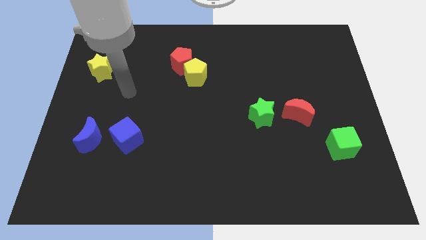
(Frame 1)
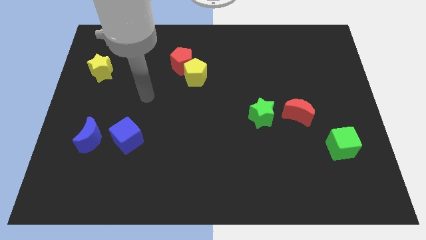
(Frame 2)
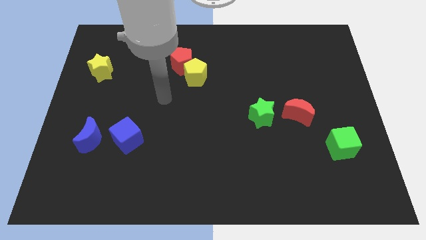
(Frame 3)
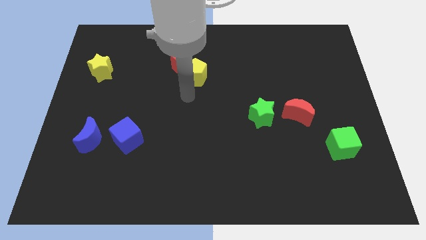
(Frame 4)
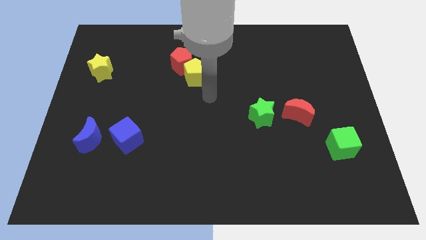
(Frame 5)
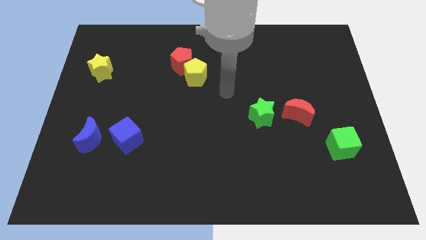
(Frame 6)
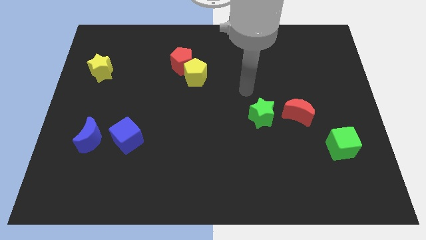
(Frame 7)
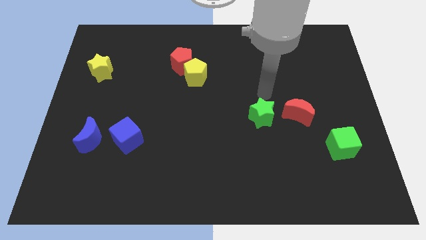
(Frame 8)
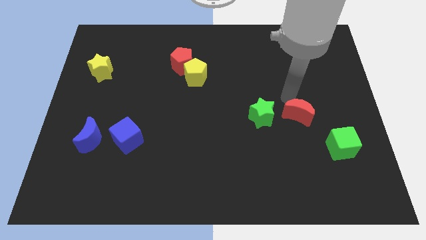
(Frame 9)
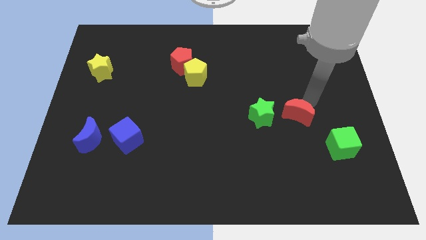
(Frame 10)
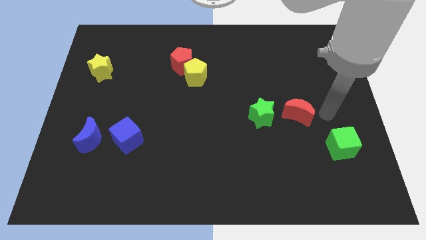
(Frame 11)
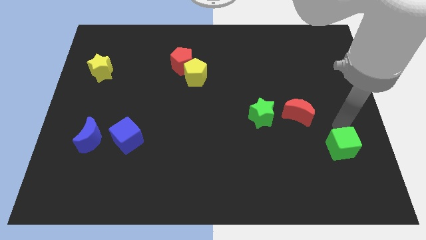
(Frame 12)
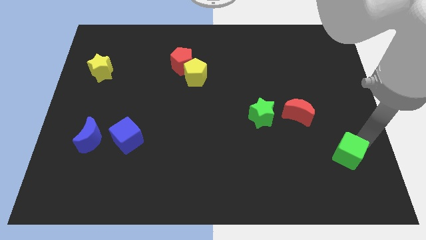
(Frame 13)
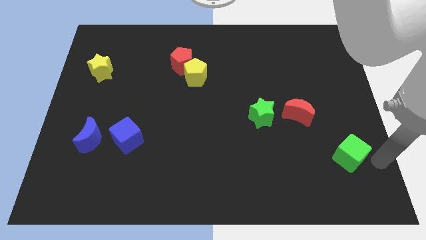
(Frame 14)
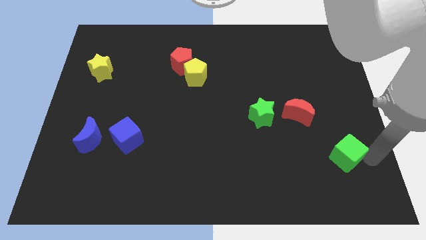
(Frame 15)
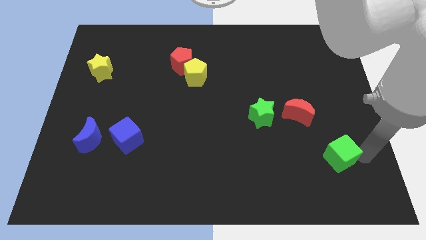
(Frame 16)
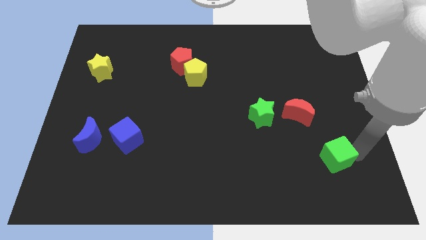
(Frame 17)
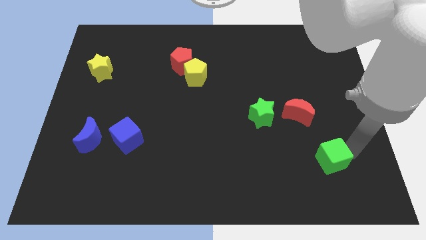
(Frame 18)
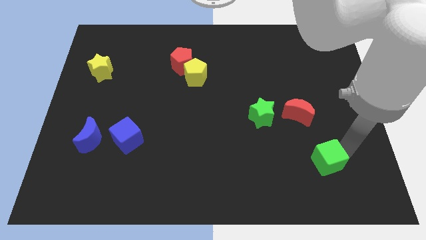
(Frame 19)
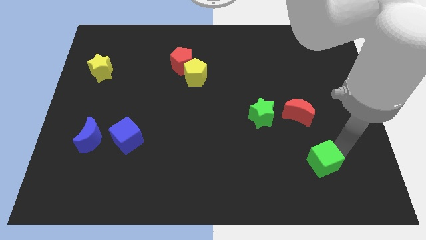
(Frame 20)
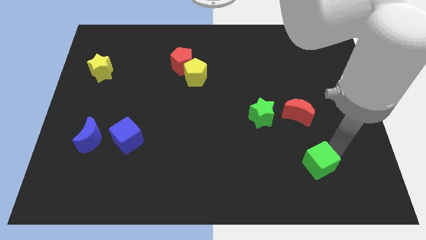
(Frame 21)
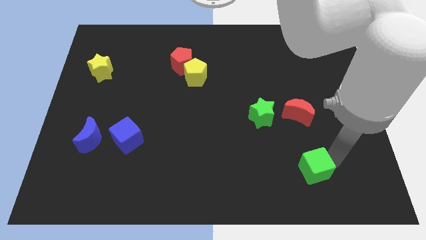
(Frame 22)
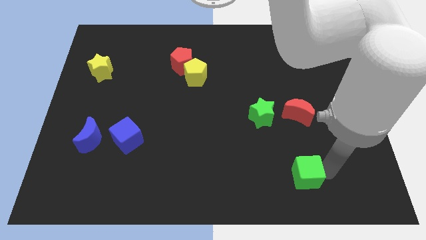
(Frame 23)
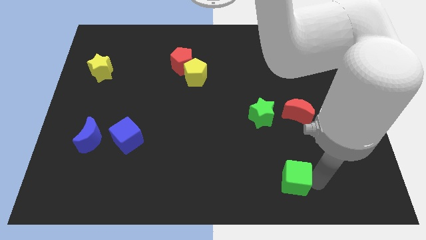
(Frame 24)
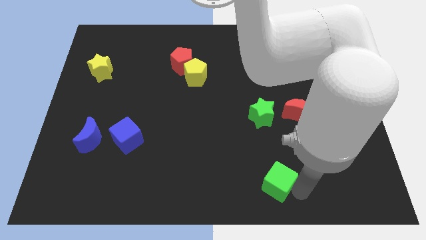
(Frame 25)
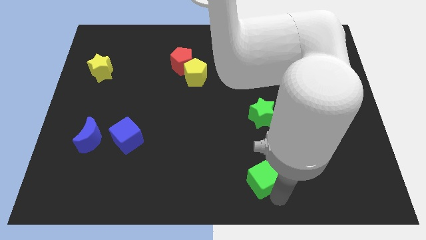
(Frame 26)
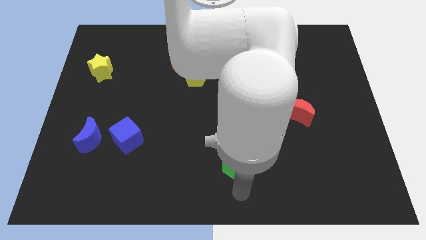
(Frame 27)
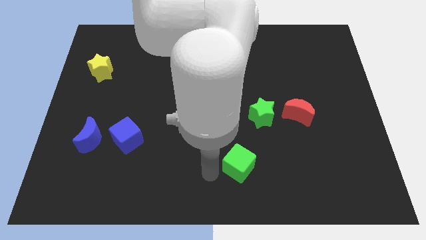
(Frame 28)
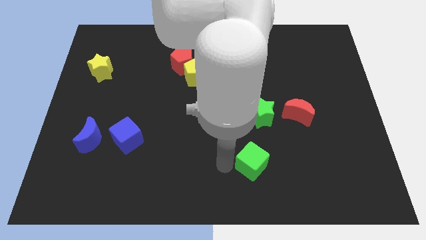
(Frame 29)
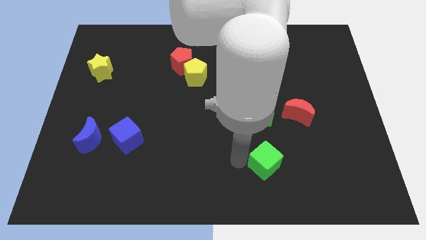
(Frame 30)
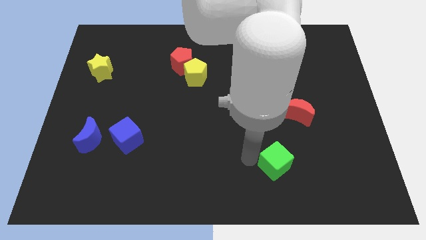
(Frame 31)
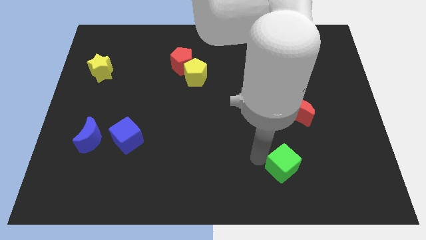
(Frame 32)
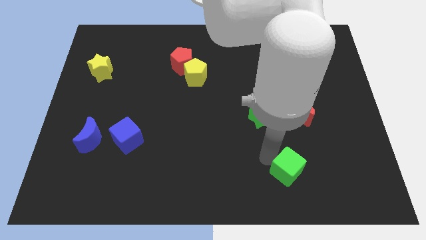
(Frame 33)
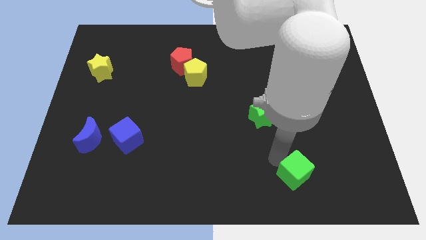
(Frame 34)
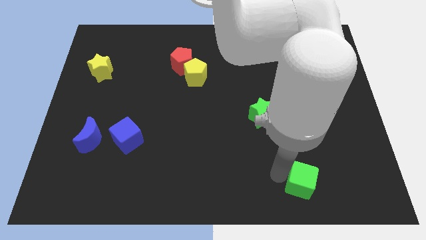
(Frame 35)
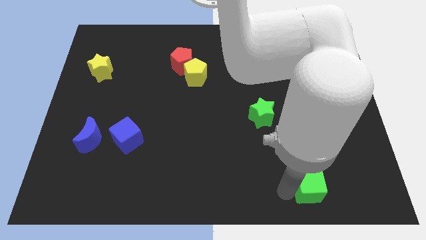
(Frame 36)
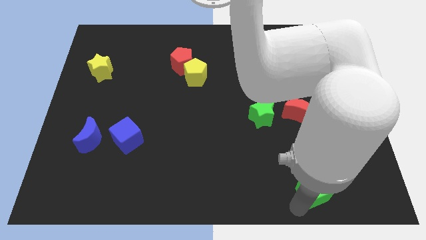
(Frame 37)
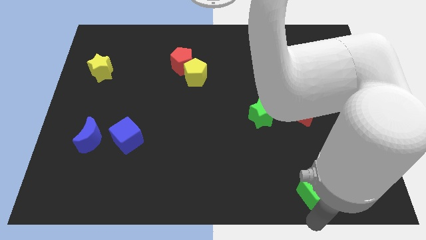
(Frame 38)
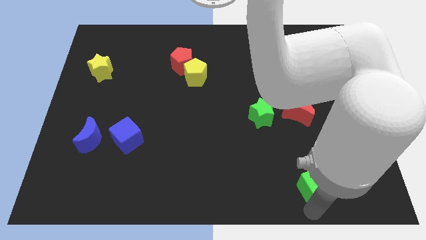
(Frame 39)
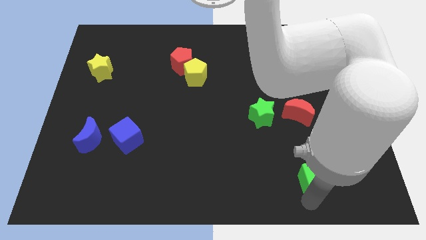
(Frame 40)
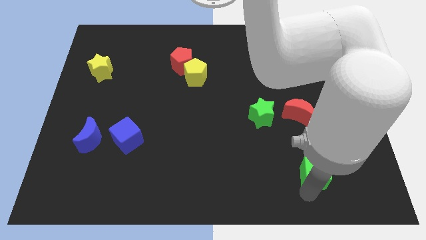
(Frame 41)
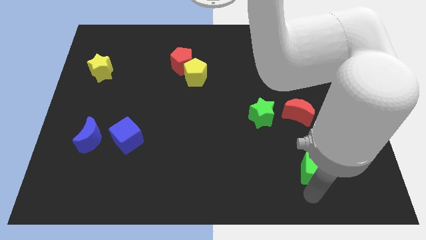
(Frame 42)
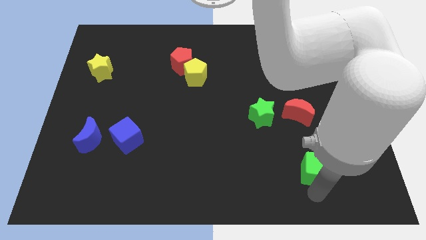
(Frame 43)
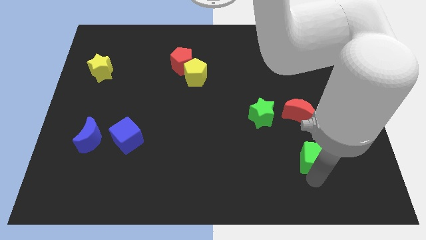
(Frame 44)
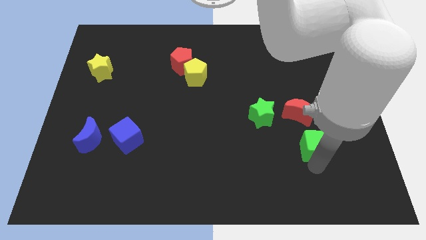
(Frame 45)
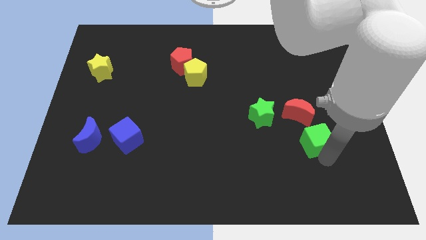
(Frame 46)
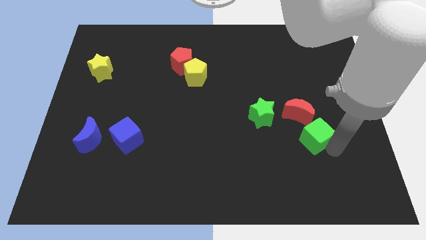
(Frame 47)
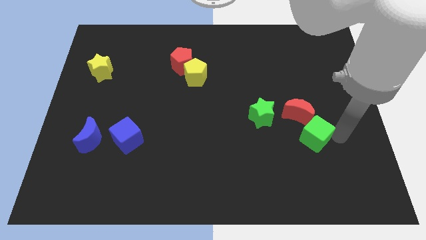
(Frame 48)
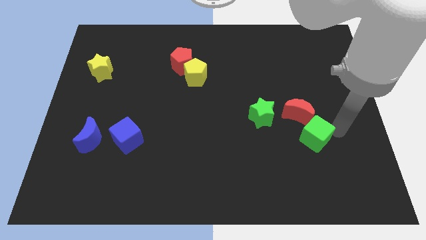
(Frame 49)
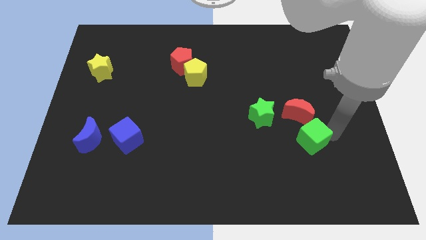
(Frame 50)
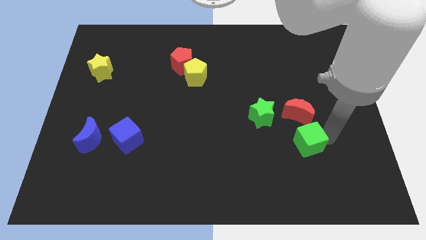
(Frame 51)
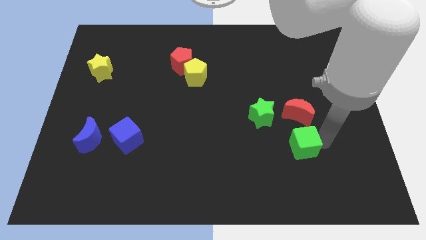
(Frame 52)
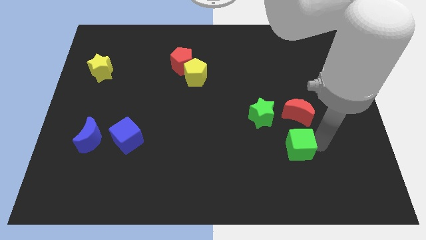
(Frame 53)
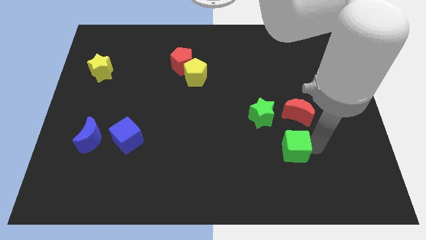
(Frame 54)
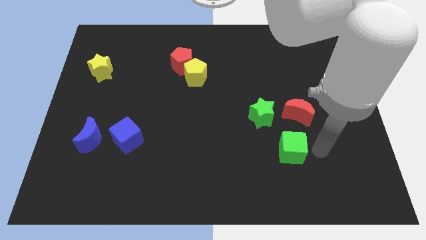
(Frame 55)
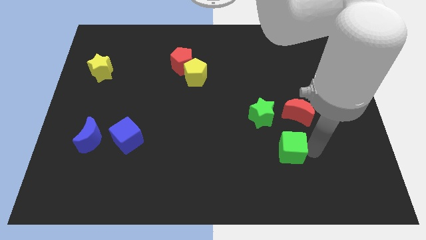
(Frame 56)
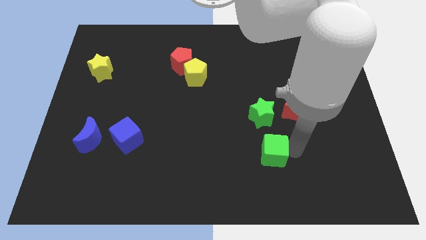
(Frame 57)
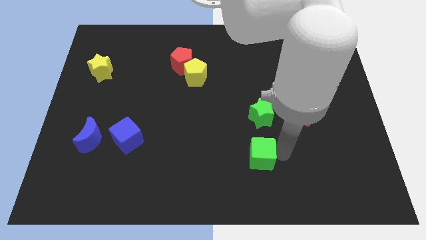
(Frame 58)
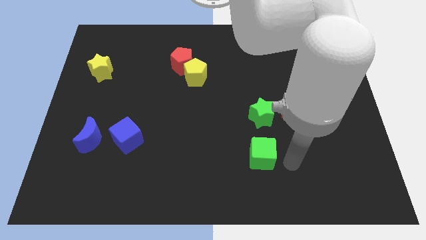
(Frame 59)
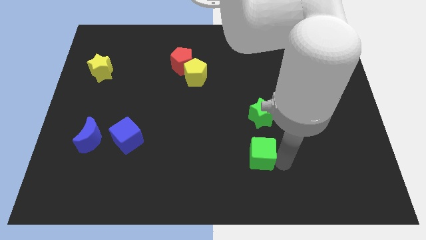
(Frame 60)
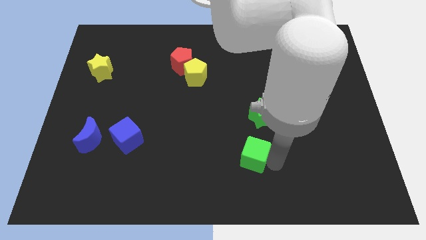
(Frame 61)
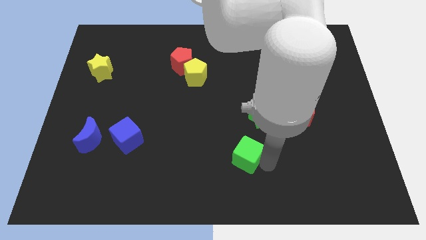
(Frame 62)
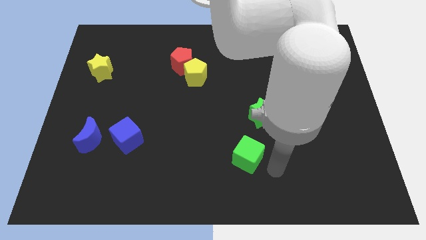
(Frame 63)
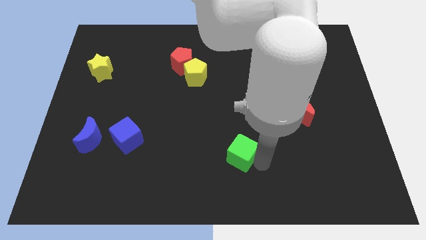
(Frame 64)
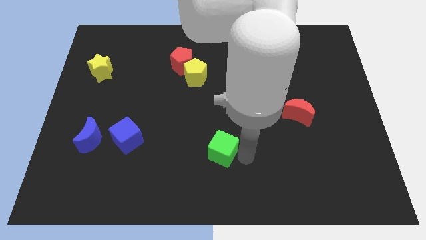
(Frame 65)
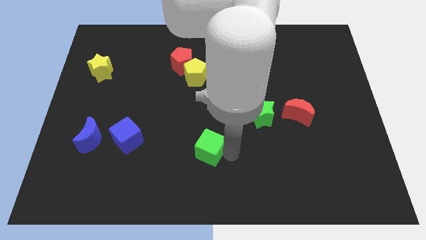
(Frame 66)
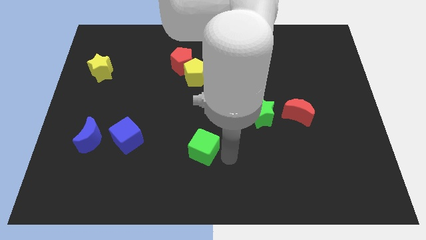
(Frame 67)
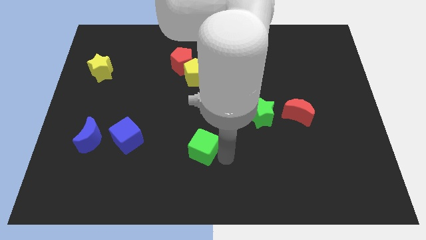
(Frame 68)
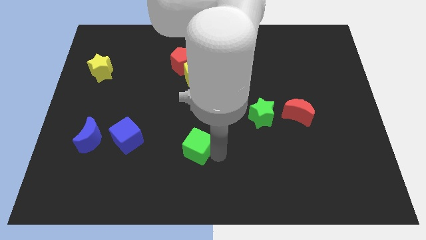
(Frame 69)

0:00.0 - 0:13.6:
put the green cube just right of the blue cube

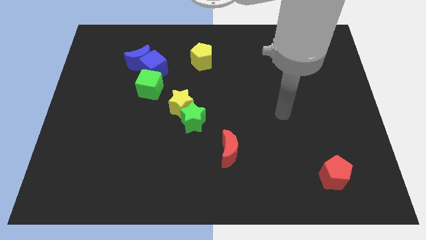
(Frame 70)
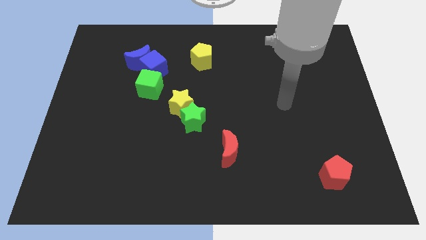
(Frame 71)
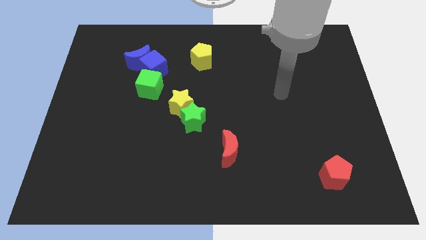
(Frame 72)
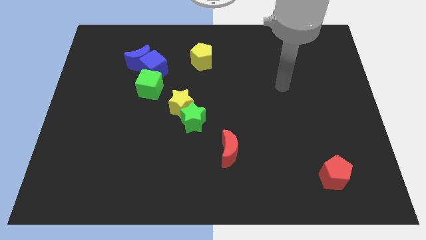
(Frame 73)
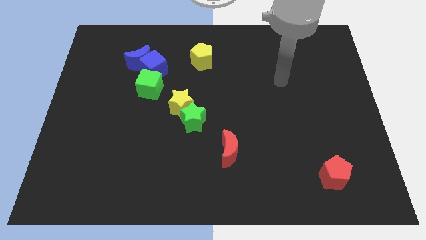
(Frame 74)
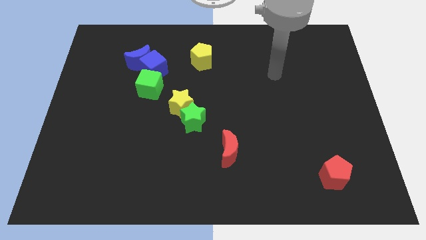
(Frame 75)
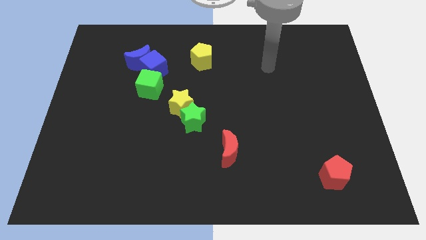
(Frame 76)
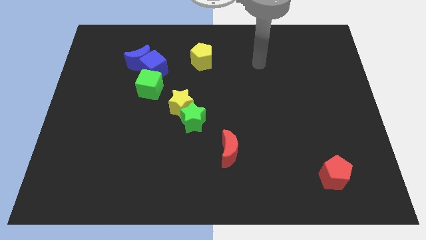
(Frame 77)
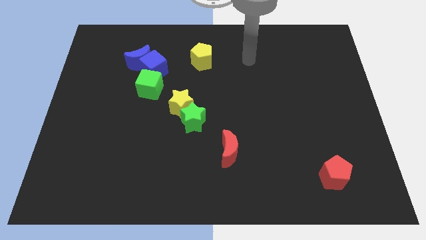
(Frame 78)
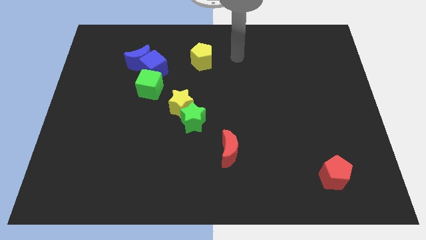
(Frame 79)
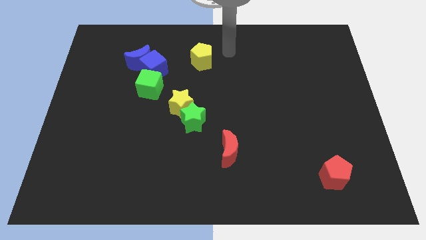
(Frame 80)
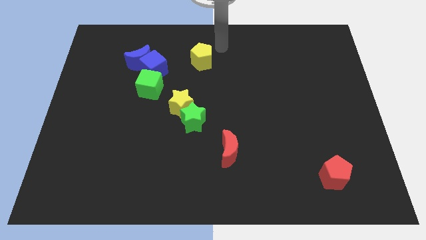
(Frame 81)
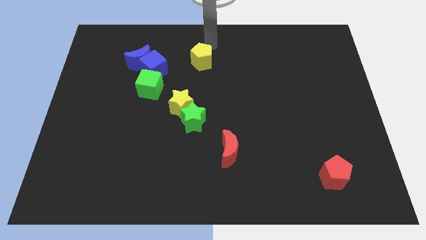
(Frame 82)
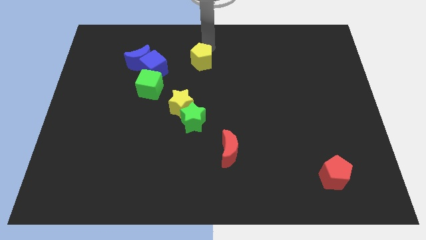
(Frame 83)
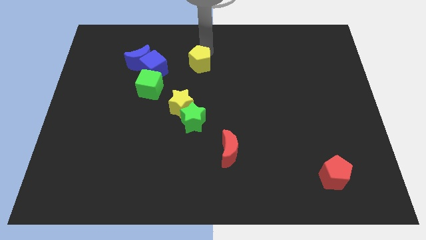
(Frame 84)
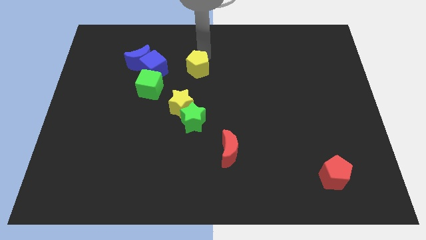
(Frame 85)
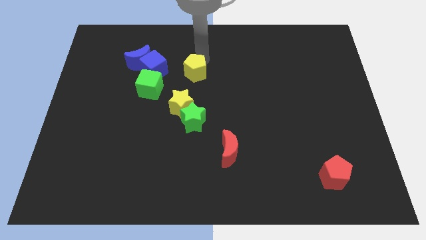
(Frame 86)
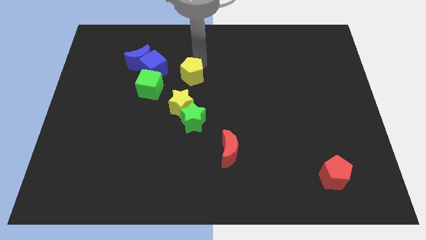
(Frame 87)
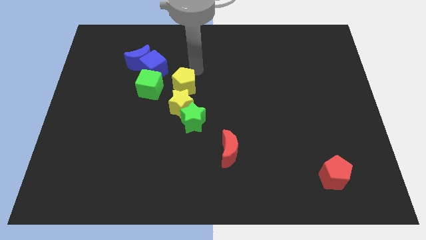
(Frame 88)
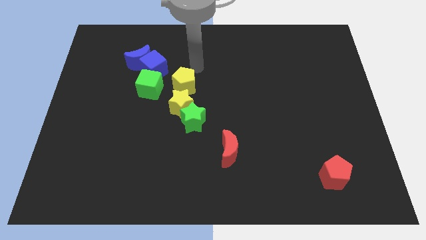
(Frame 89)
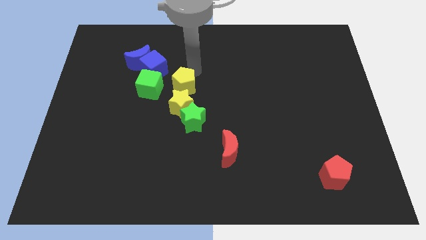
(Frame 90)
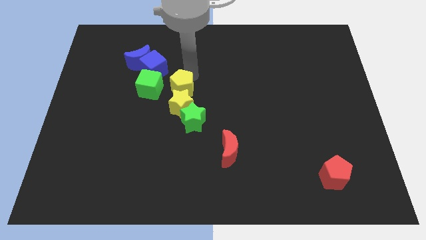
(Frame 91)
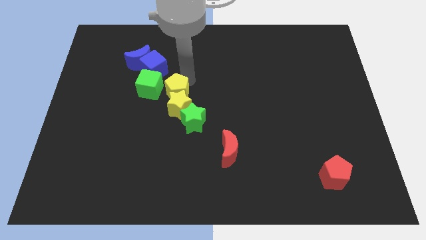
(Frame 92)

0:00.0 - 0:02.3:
push the yellow pentagon to the top left of the green star
